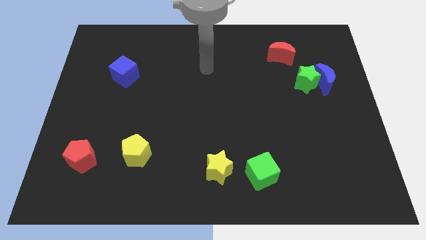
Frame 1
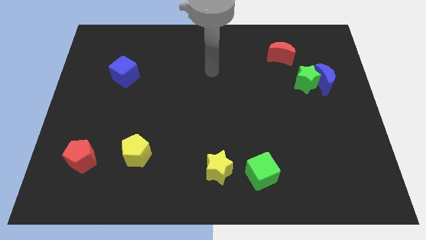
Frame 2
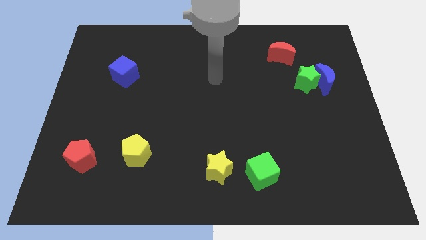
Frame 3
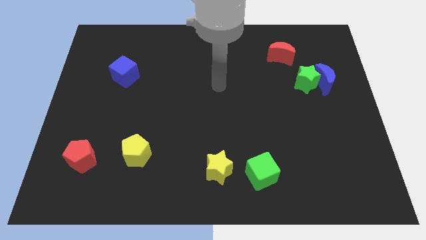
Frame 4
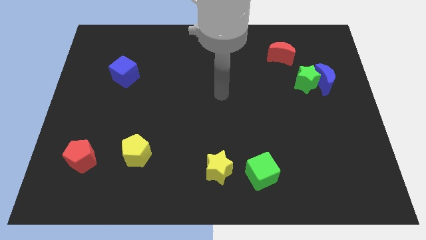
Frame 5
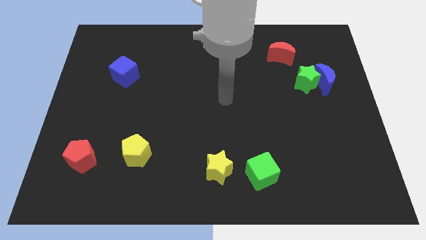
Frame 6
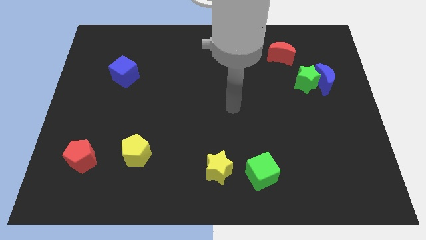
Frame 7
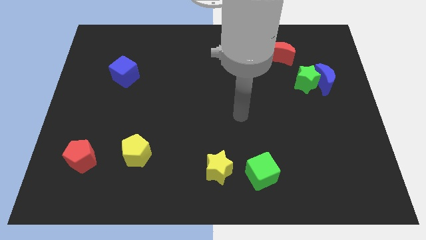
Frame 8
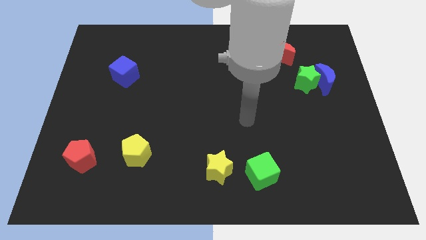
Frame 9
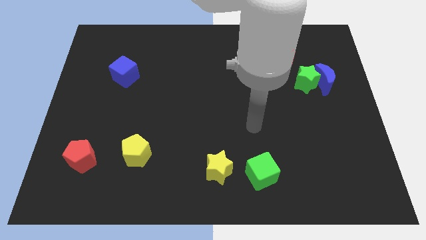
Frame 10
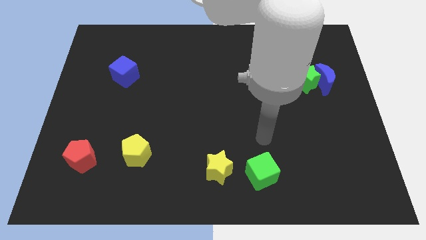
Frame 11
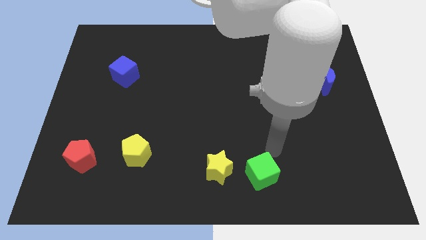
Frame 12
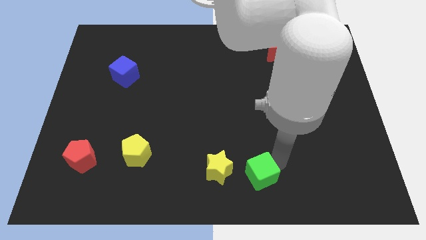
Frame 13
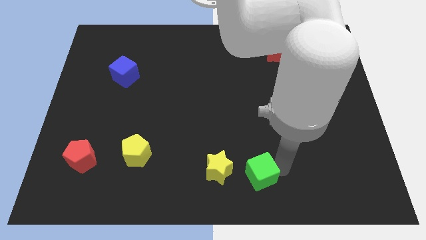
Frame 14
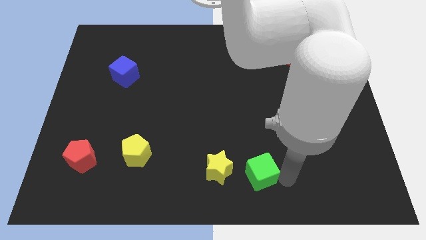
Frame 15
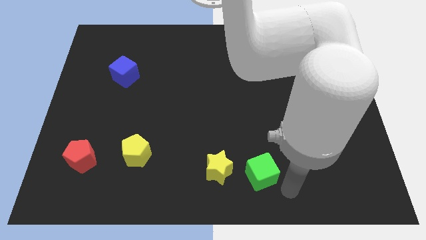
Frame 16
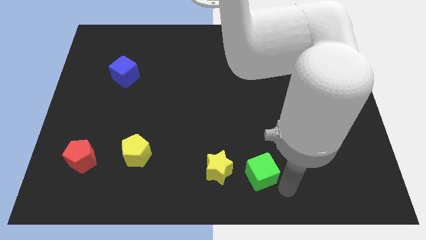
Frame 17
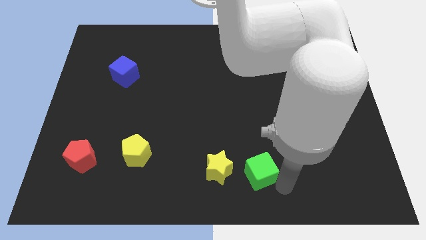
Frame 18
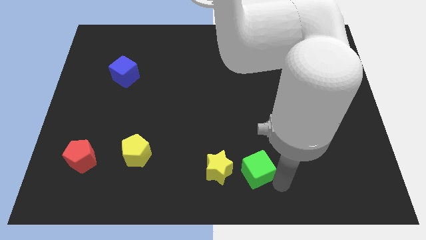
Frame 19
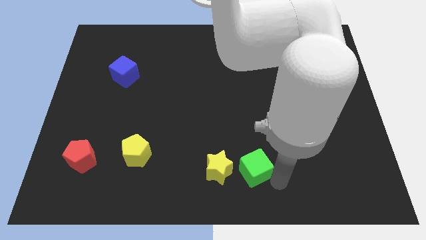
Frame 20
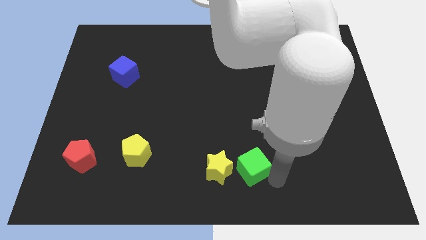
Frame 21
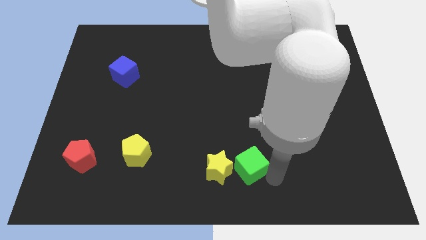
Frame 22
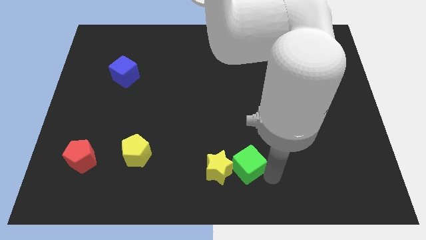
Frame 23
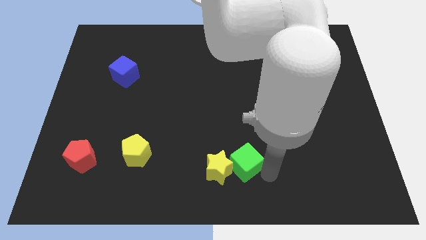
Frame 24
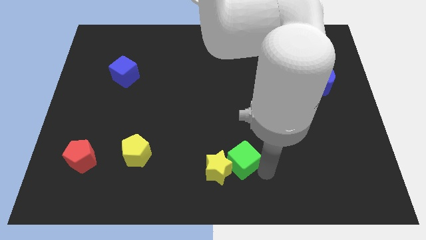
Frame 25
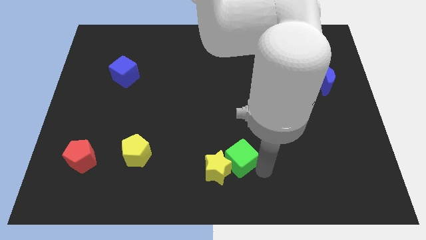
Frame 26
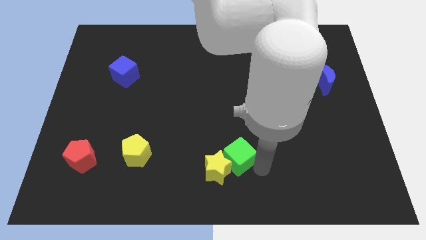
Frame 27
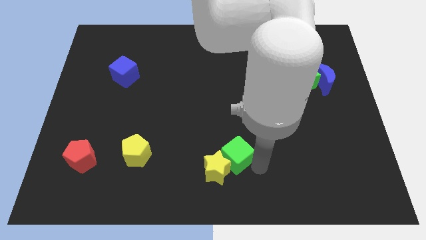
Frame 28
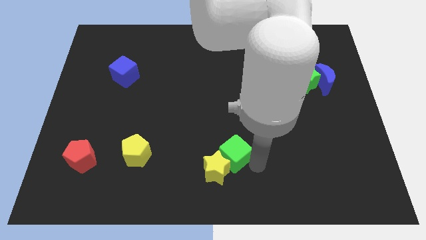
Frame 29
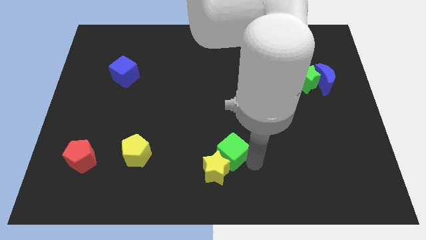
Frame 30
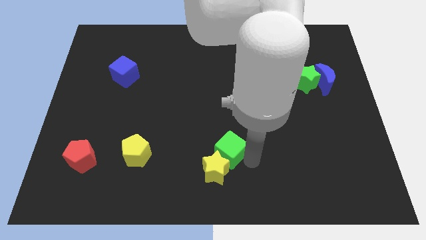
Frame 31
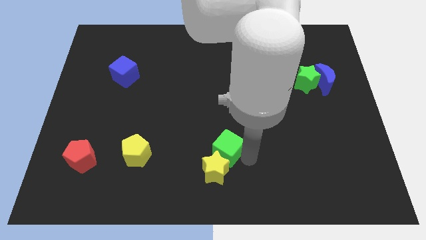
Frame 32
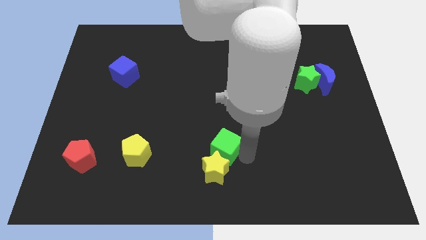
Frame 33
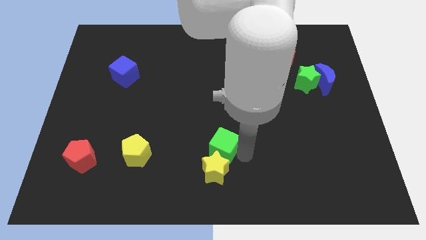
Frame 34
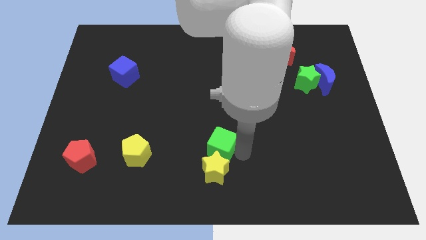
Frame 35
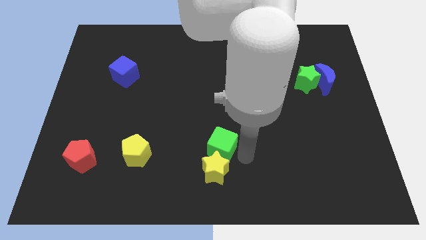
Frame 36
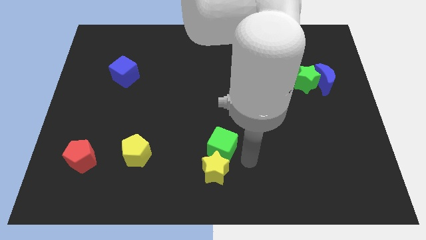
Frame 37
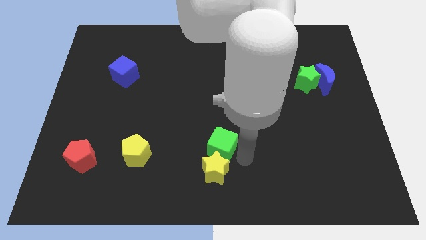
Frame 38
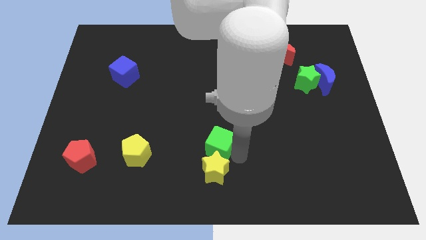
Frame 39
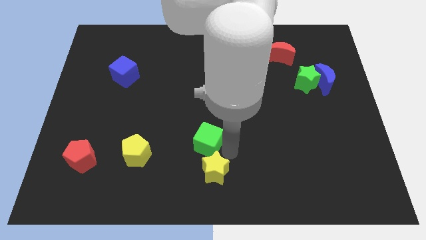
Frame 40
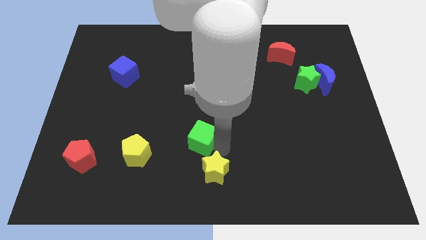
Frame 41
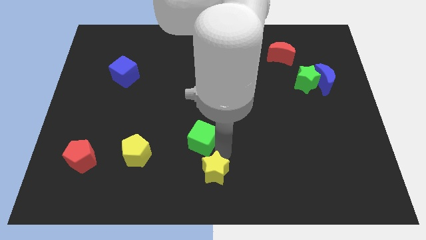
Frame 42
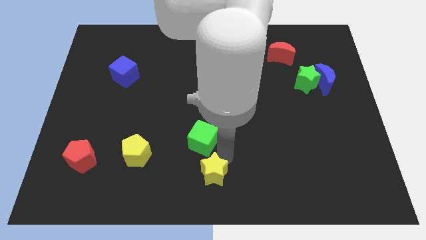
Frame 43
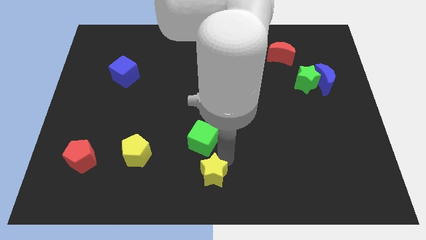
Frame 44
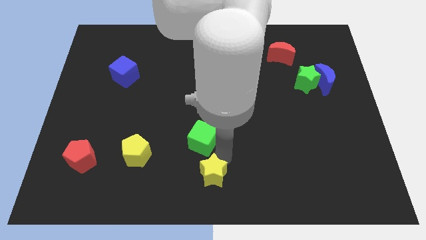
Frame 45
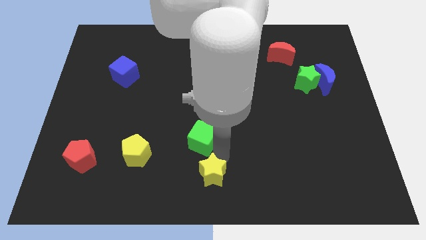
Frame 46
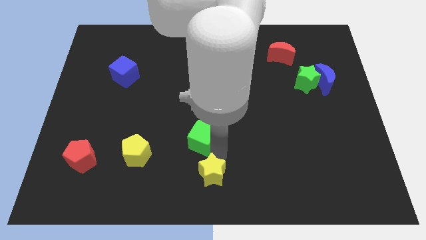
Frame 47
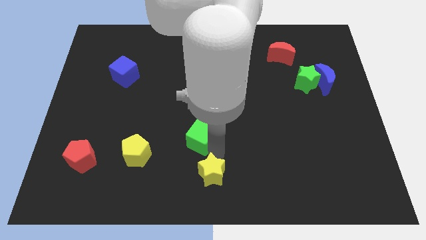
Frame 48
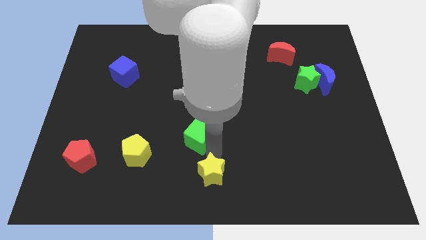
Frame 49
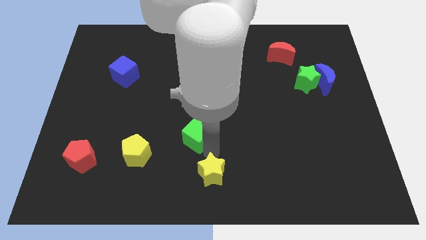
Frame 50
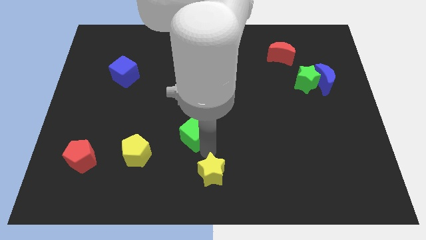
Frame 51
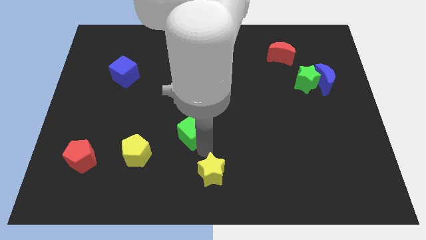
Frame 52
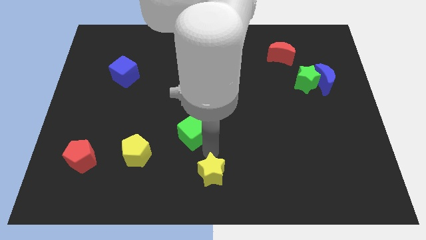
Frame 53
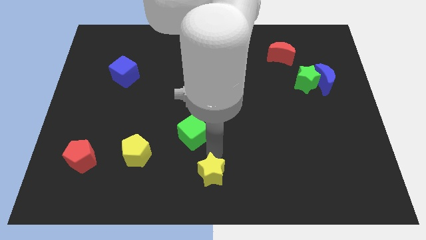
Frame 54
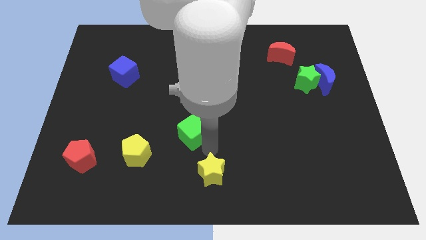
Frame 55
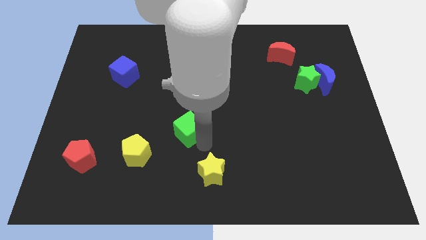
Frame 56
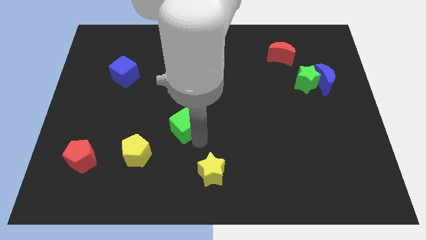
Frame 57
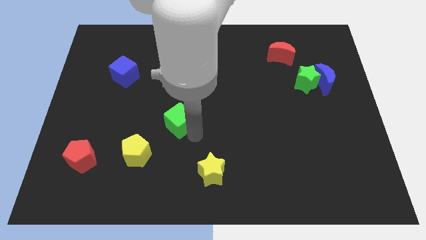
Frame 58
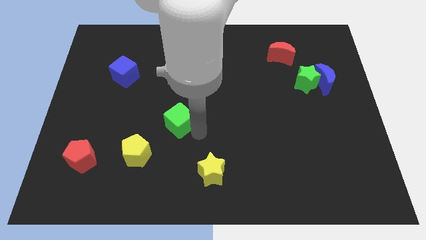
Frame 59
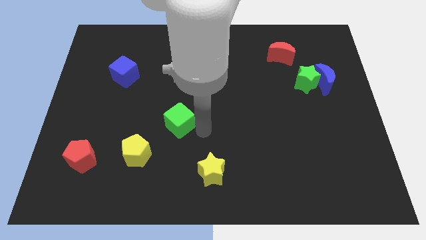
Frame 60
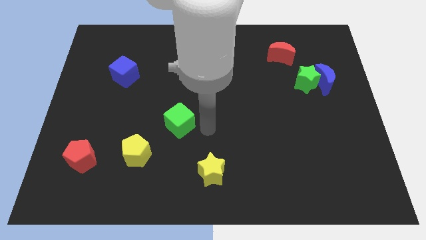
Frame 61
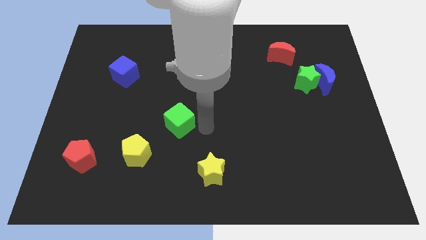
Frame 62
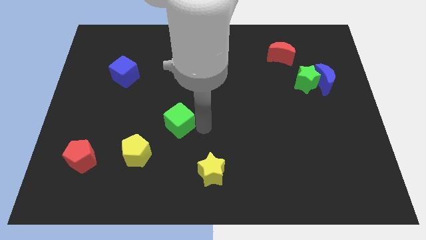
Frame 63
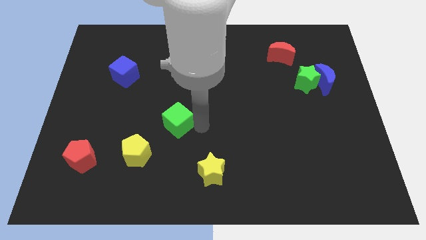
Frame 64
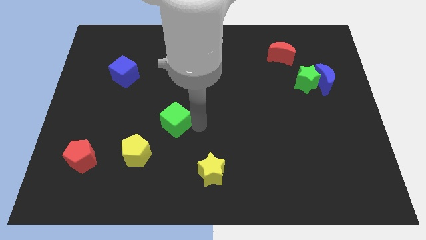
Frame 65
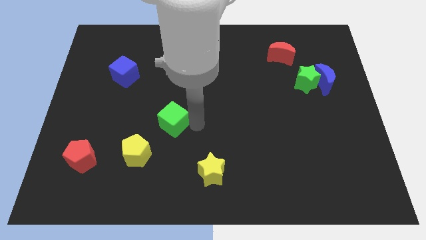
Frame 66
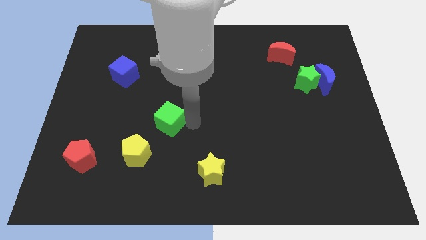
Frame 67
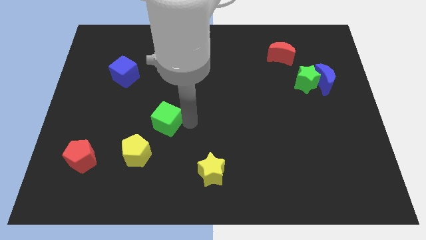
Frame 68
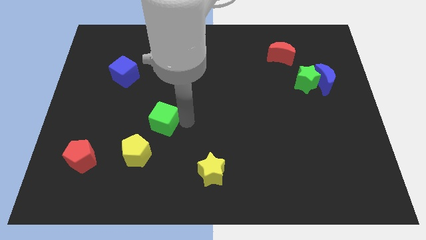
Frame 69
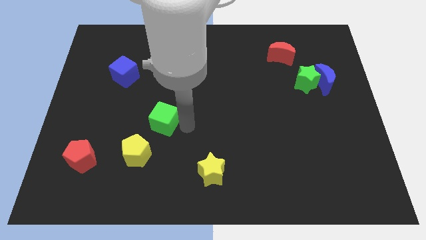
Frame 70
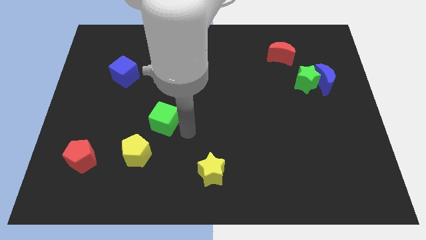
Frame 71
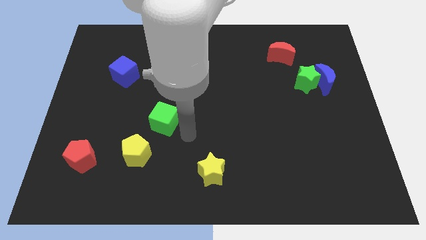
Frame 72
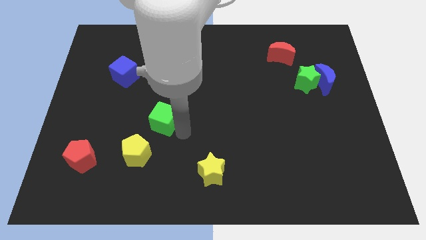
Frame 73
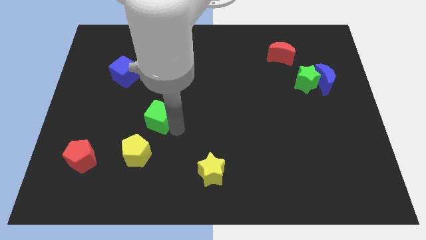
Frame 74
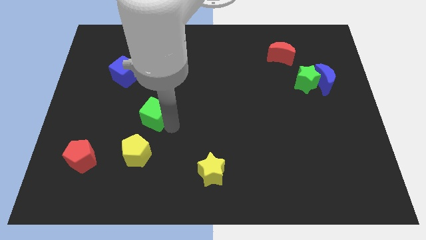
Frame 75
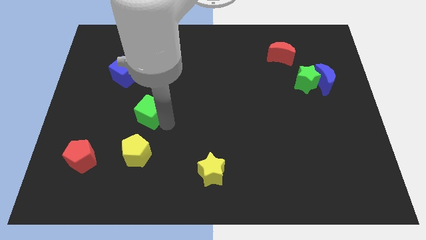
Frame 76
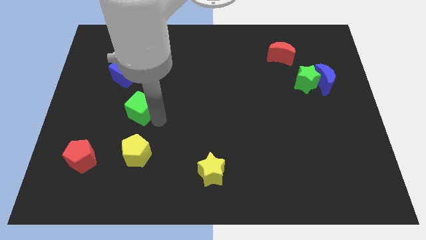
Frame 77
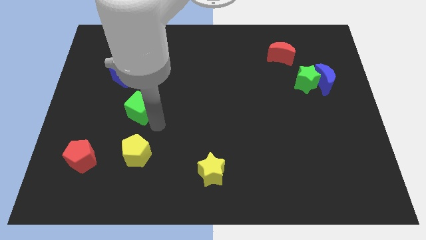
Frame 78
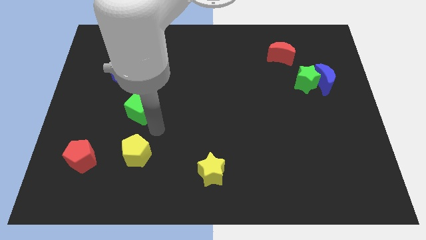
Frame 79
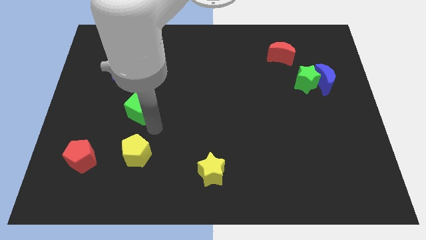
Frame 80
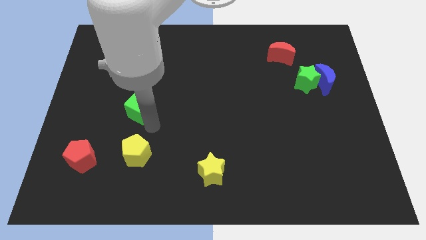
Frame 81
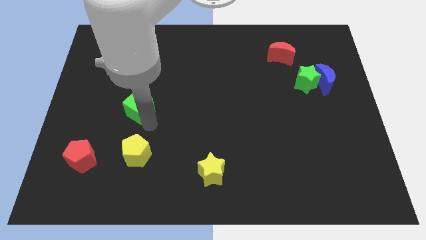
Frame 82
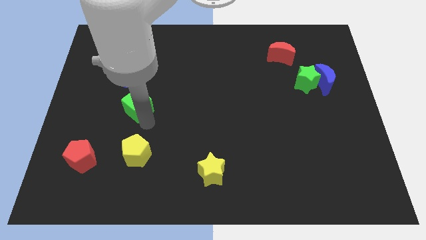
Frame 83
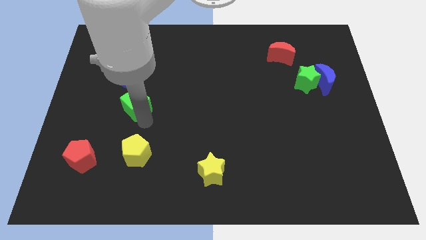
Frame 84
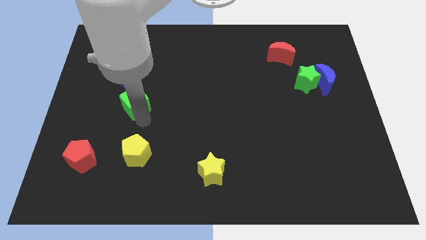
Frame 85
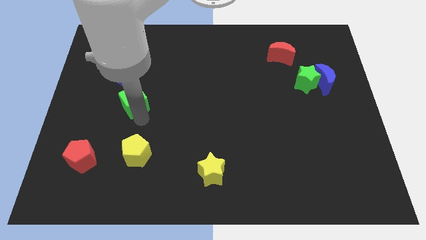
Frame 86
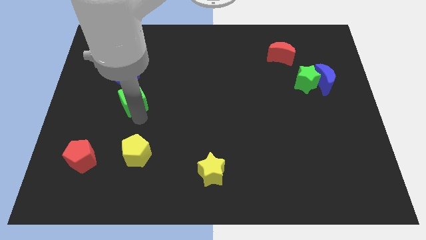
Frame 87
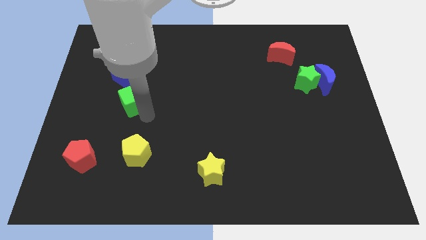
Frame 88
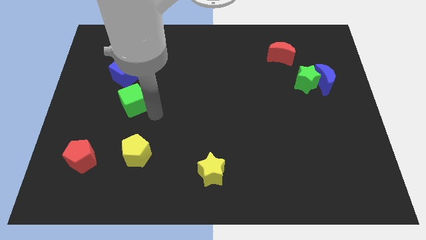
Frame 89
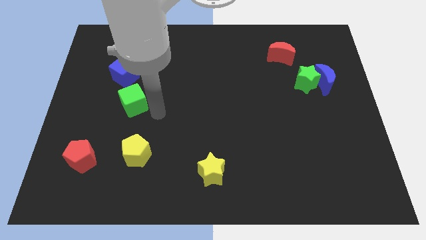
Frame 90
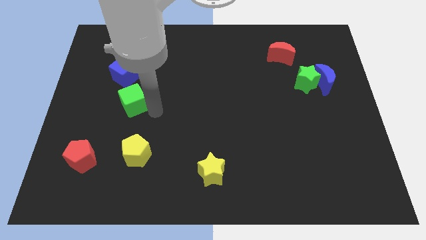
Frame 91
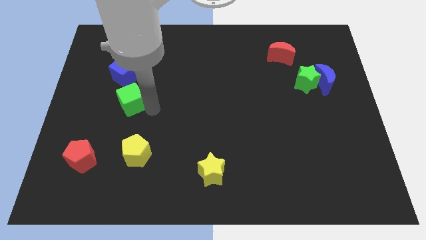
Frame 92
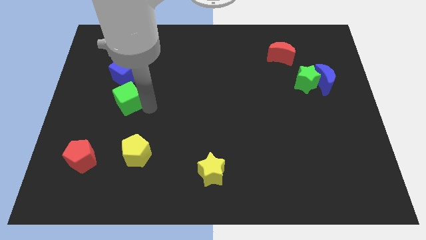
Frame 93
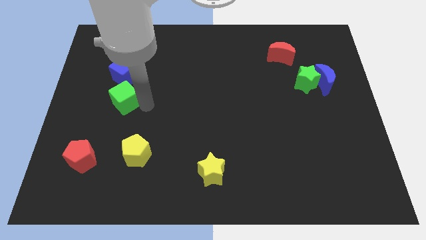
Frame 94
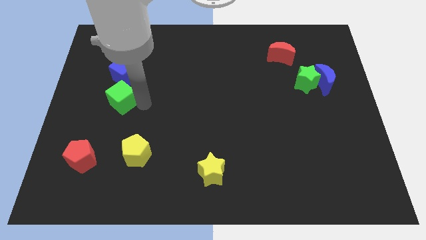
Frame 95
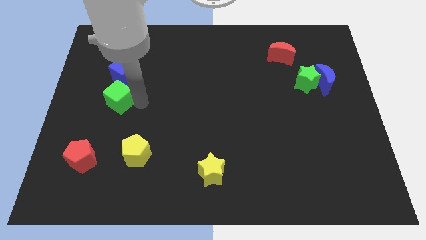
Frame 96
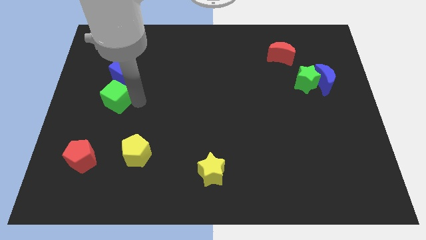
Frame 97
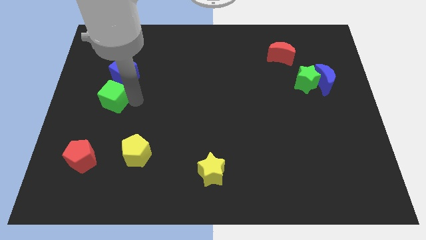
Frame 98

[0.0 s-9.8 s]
move the green cube to the bottom left side of the blue cube
